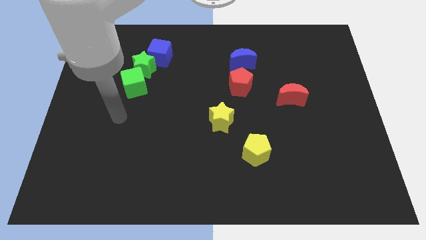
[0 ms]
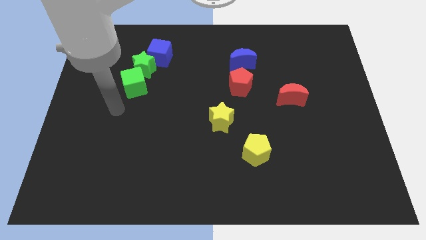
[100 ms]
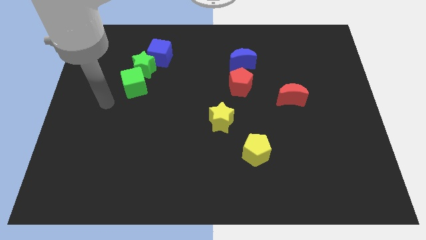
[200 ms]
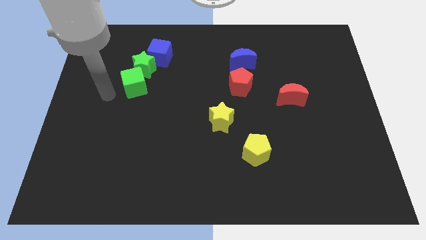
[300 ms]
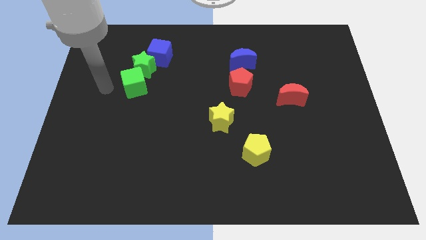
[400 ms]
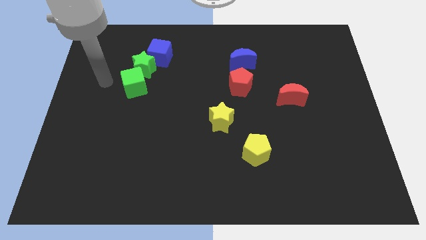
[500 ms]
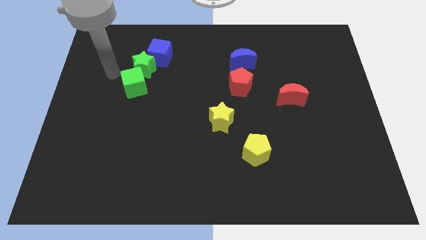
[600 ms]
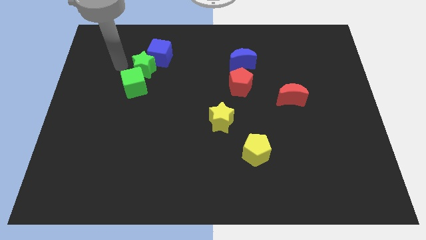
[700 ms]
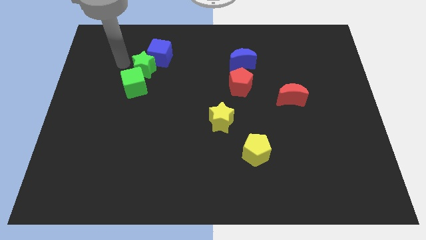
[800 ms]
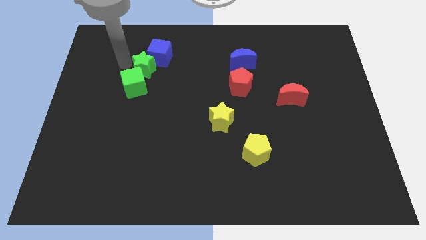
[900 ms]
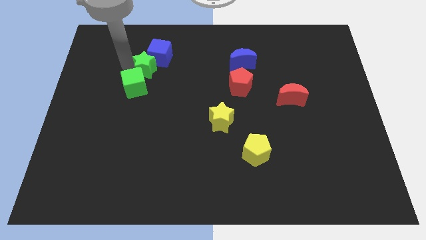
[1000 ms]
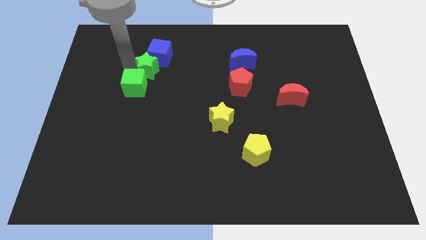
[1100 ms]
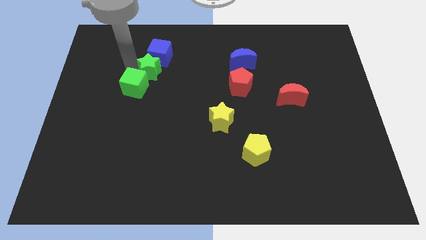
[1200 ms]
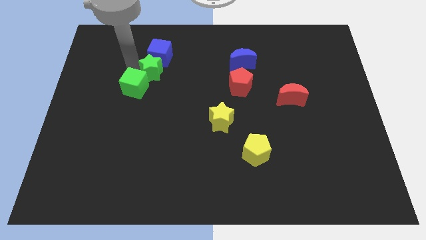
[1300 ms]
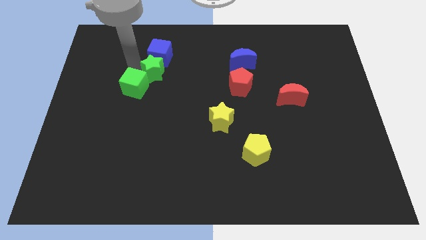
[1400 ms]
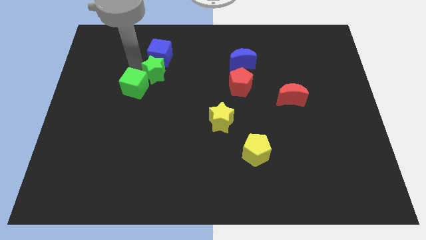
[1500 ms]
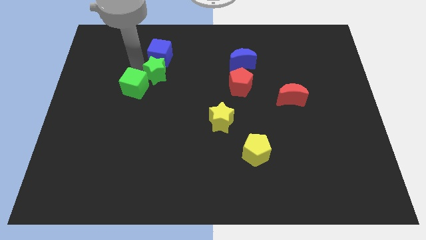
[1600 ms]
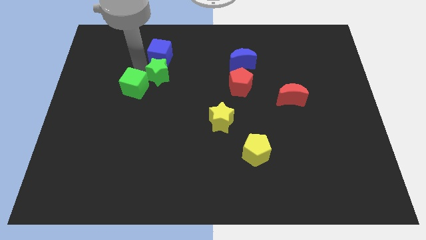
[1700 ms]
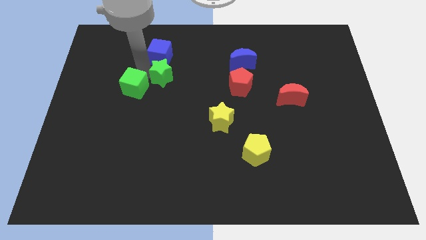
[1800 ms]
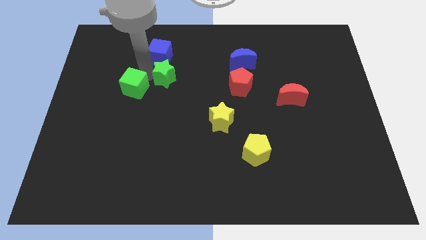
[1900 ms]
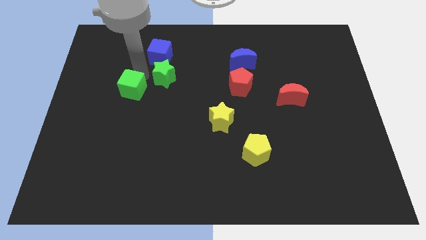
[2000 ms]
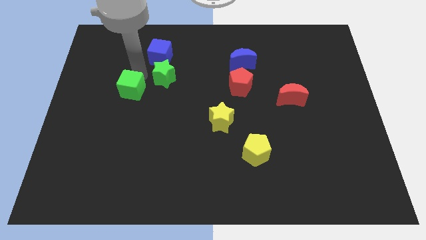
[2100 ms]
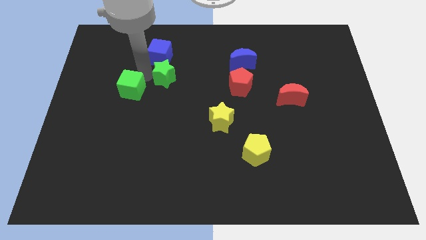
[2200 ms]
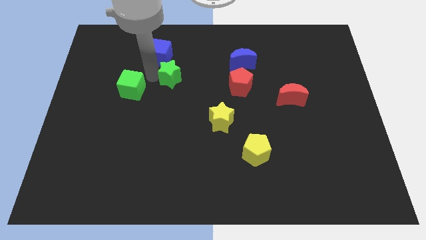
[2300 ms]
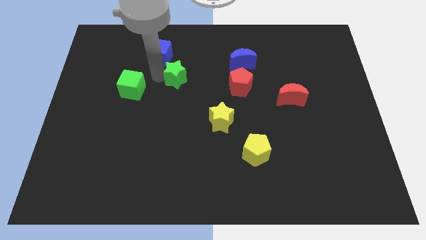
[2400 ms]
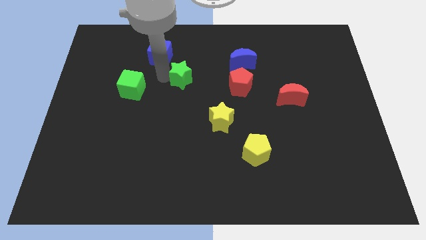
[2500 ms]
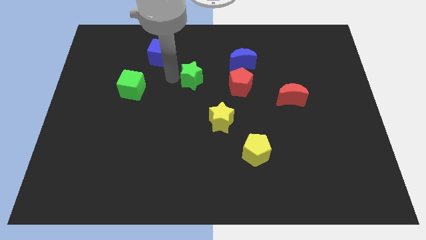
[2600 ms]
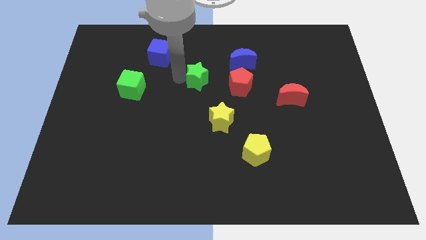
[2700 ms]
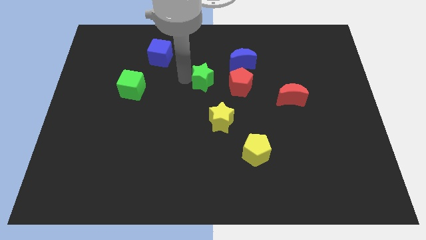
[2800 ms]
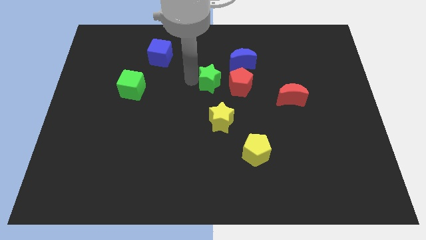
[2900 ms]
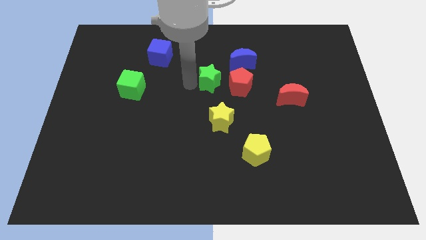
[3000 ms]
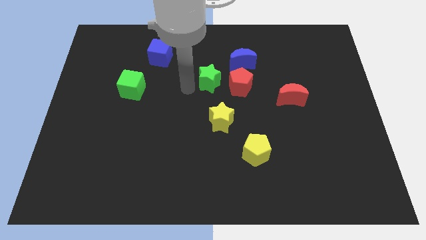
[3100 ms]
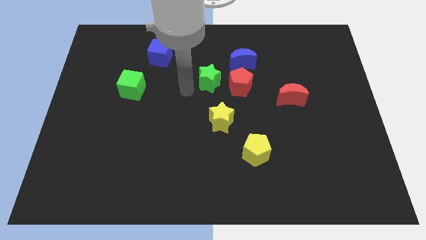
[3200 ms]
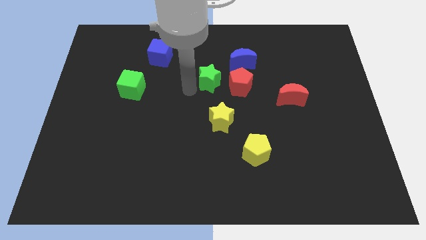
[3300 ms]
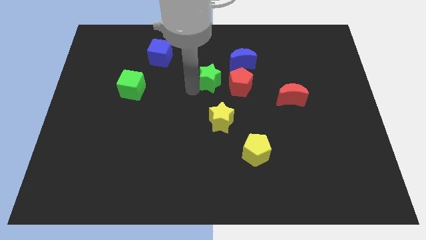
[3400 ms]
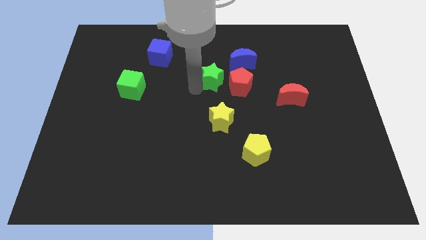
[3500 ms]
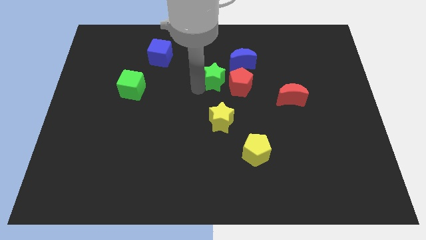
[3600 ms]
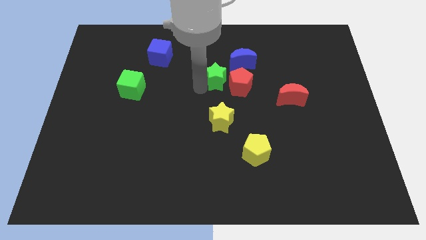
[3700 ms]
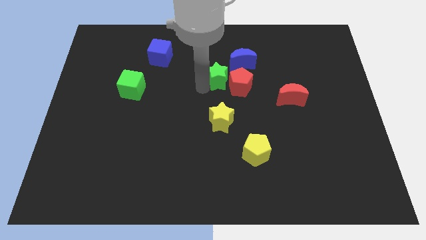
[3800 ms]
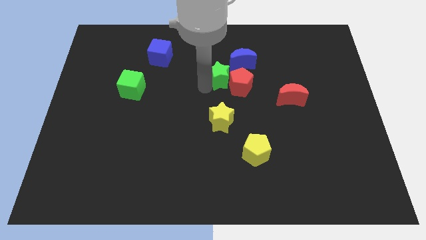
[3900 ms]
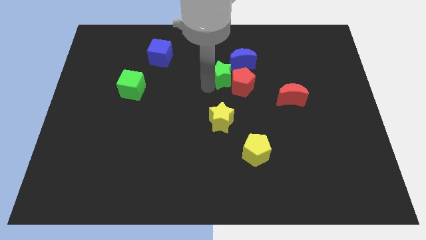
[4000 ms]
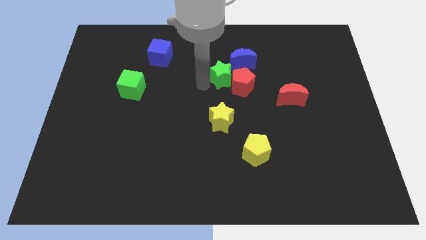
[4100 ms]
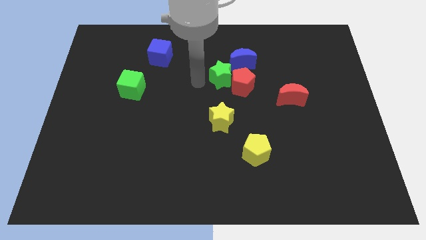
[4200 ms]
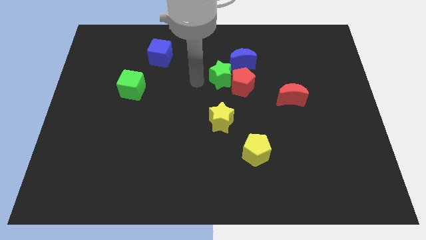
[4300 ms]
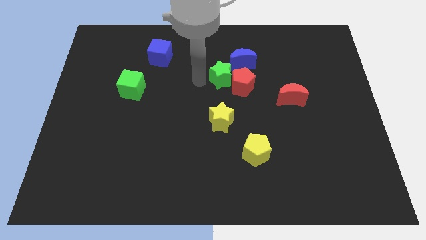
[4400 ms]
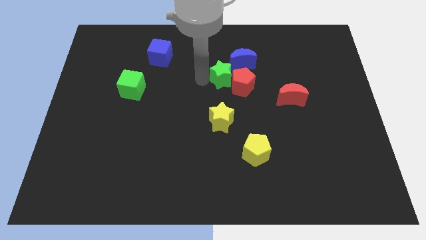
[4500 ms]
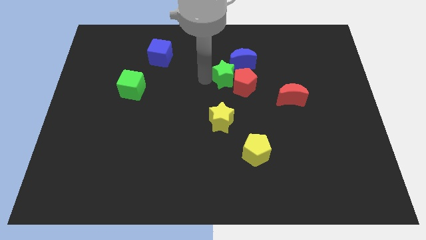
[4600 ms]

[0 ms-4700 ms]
push the green star to the right

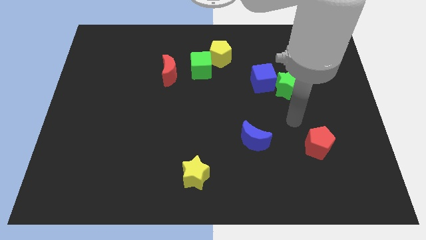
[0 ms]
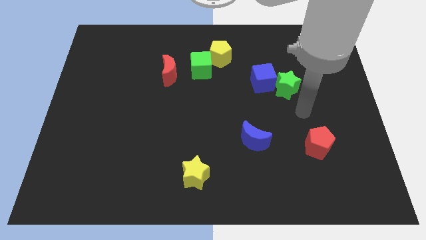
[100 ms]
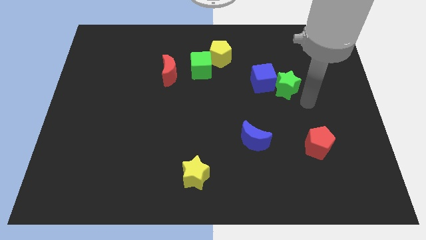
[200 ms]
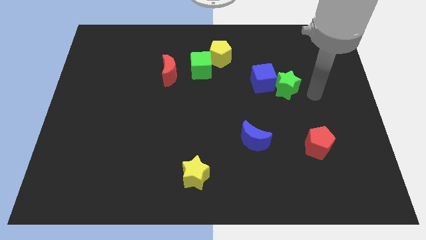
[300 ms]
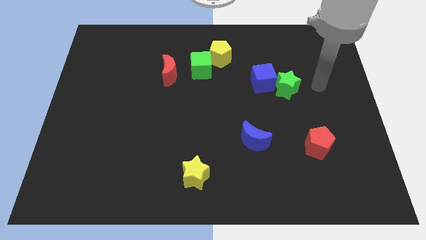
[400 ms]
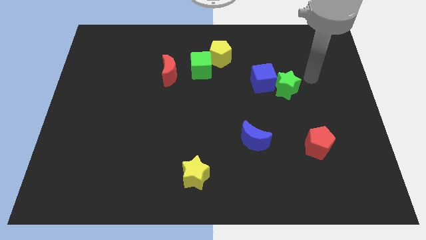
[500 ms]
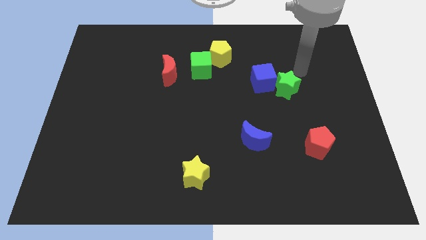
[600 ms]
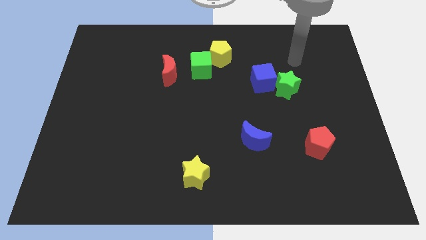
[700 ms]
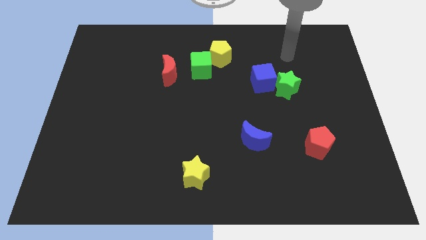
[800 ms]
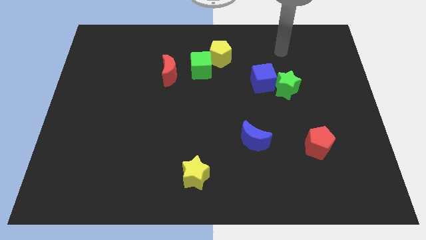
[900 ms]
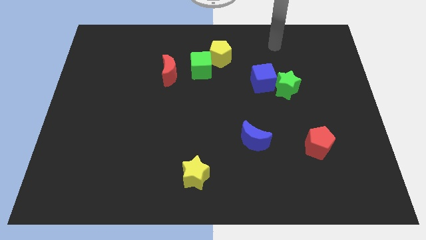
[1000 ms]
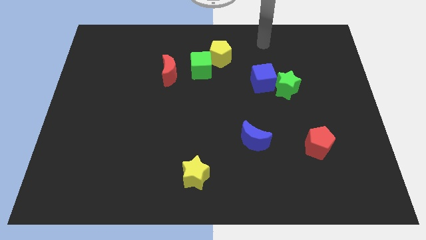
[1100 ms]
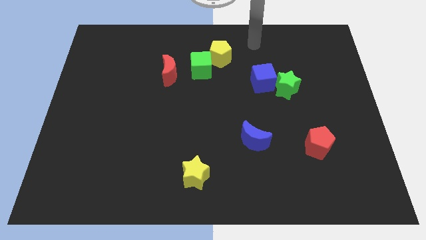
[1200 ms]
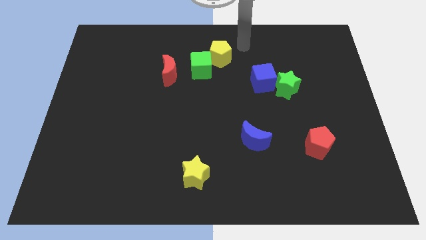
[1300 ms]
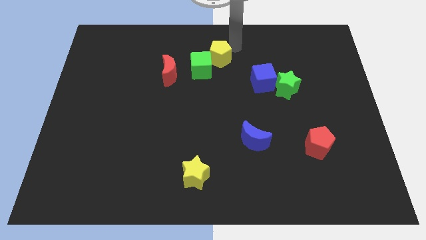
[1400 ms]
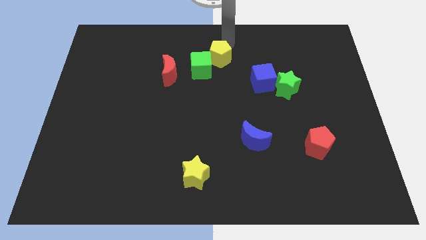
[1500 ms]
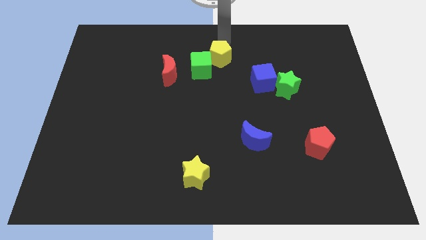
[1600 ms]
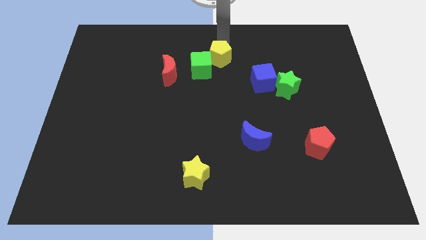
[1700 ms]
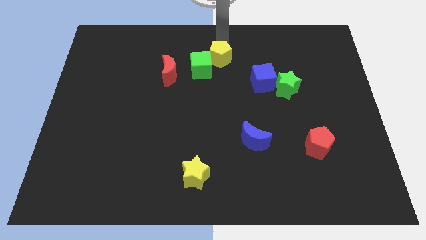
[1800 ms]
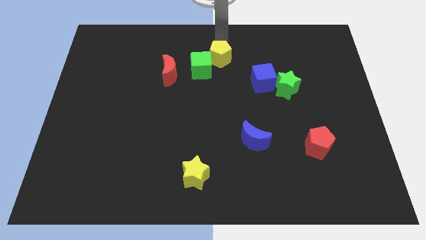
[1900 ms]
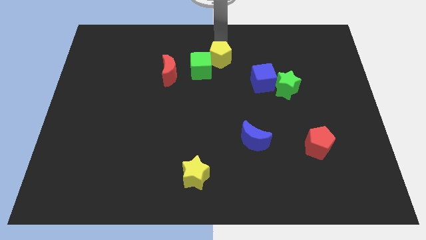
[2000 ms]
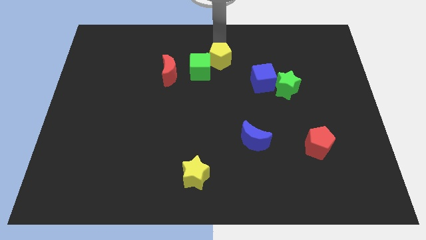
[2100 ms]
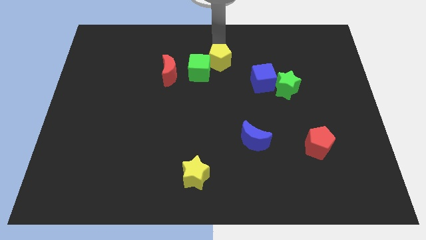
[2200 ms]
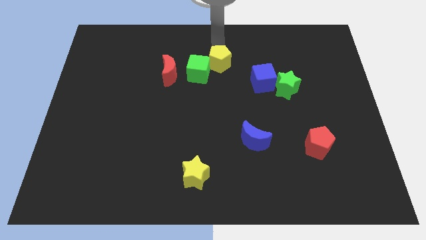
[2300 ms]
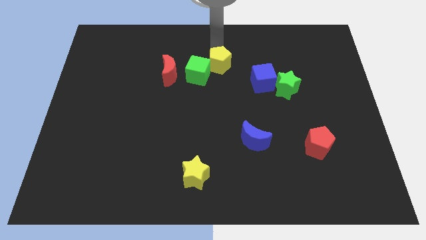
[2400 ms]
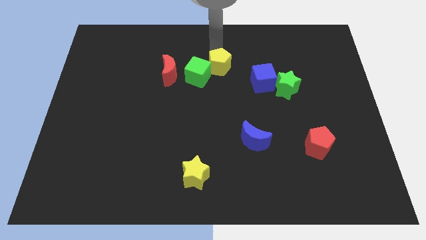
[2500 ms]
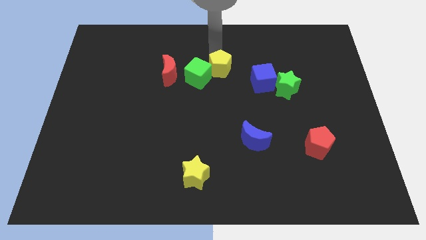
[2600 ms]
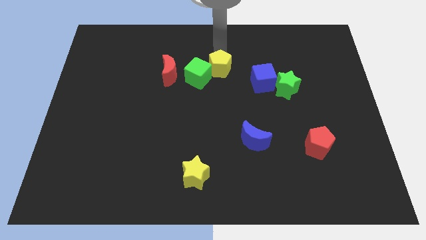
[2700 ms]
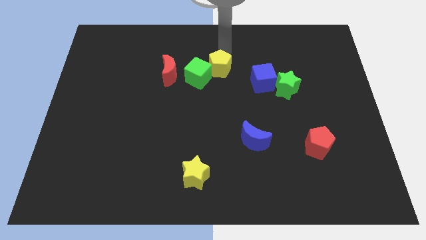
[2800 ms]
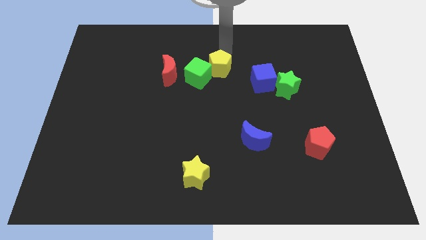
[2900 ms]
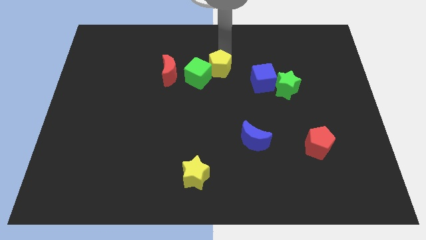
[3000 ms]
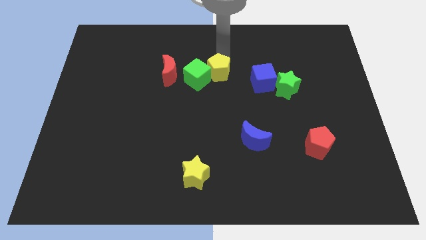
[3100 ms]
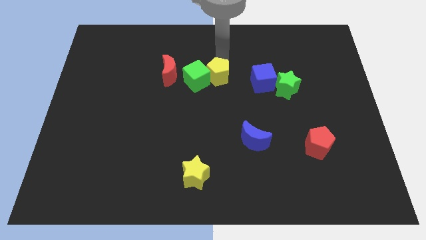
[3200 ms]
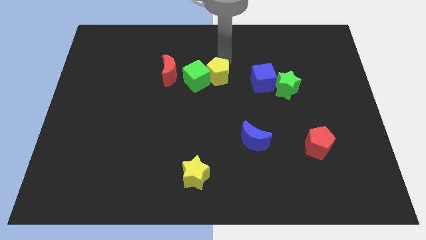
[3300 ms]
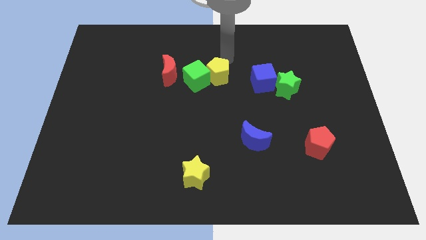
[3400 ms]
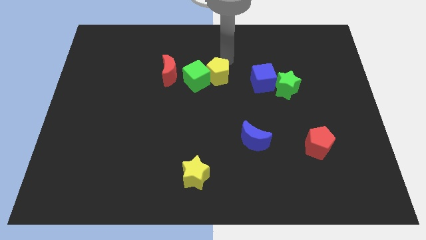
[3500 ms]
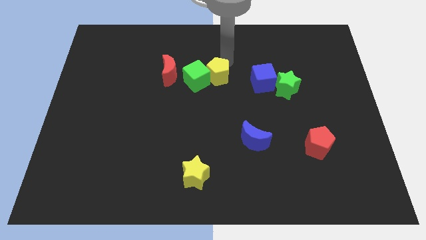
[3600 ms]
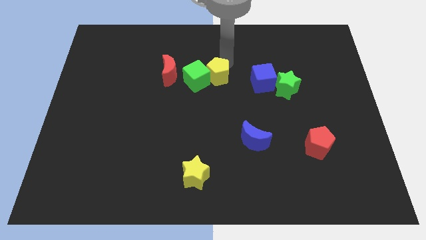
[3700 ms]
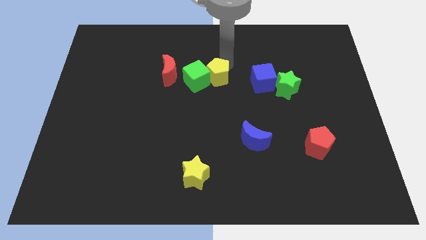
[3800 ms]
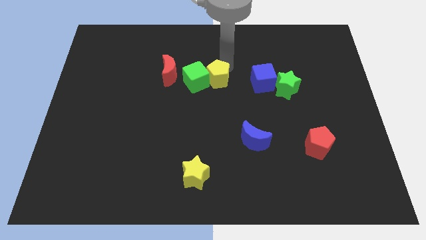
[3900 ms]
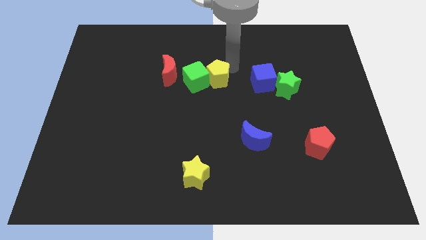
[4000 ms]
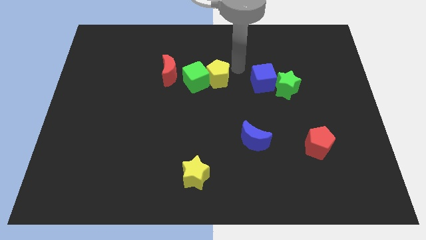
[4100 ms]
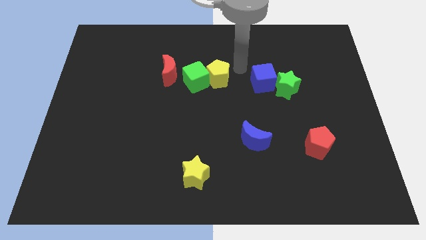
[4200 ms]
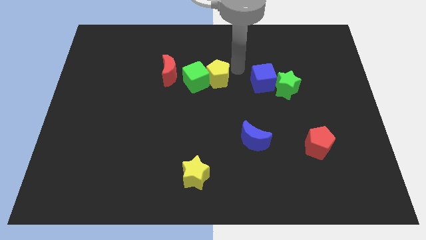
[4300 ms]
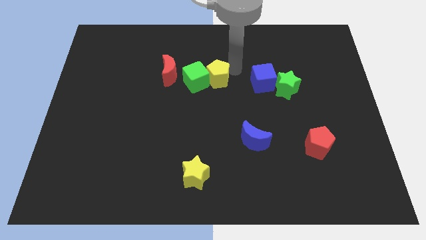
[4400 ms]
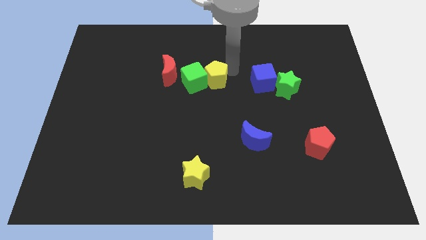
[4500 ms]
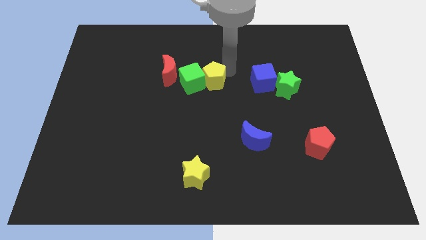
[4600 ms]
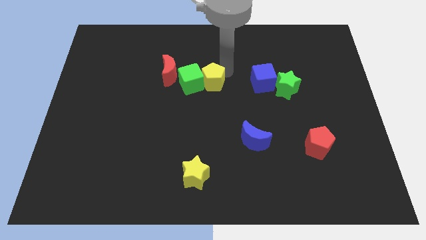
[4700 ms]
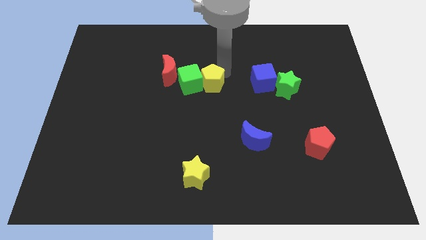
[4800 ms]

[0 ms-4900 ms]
push the yellow pentagon slightly down and left
